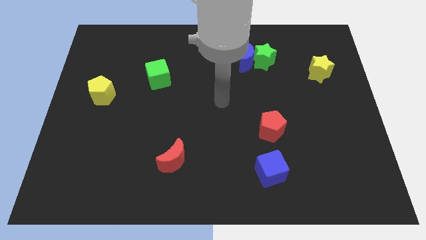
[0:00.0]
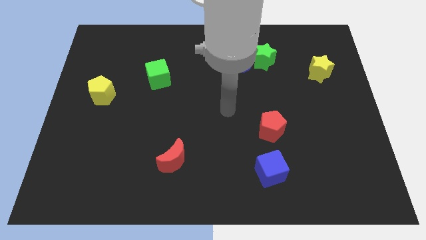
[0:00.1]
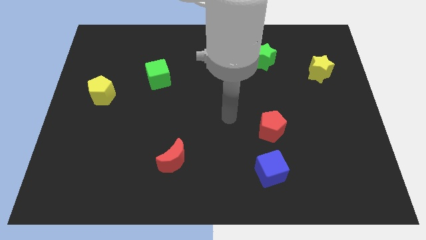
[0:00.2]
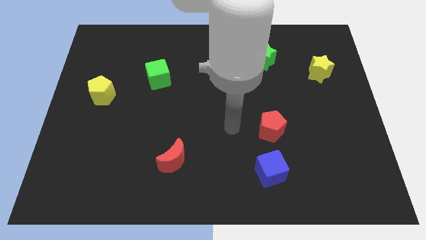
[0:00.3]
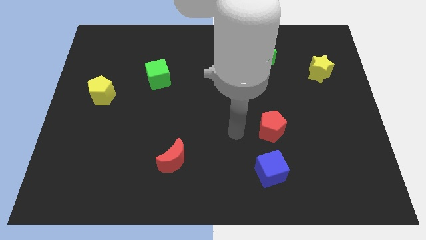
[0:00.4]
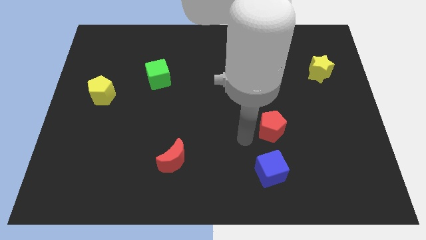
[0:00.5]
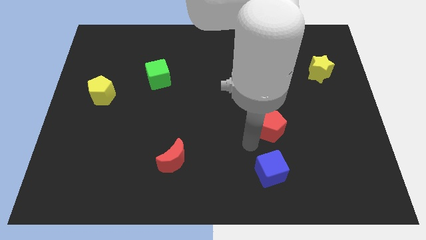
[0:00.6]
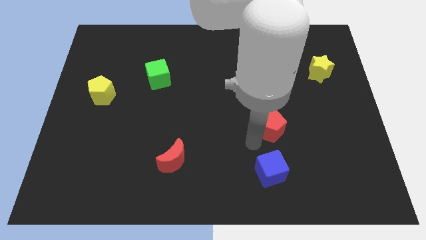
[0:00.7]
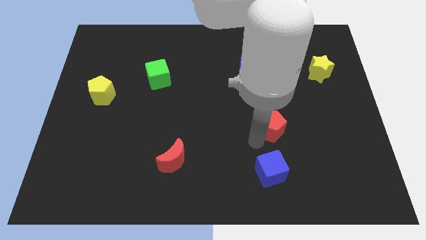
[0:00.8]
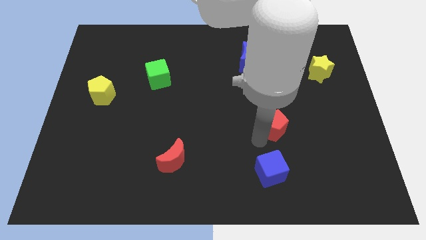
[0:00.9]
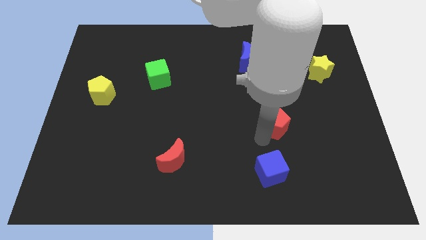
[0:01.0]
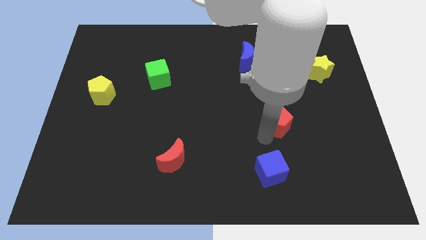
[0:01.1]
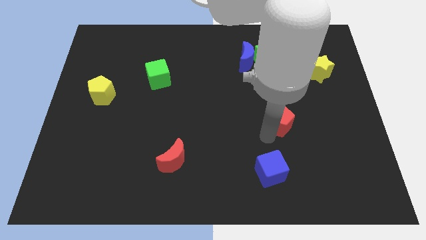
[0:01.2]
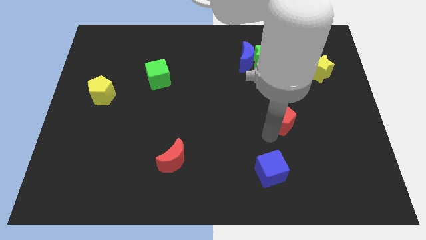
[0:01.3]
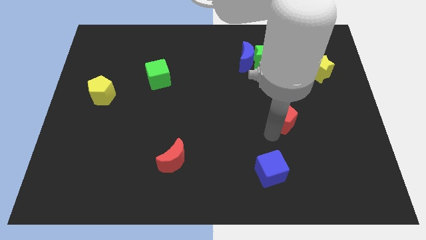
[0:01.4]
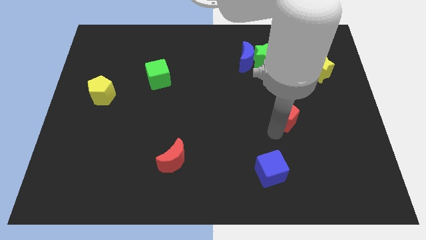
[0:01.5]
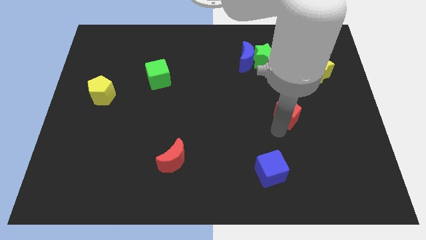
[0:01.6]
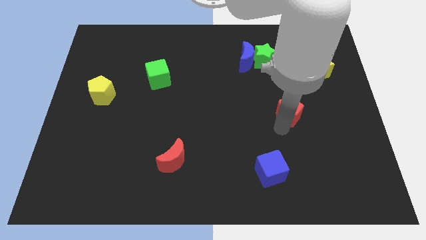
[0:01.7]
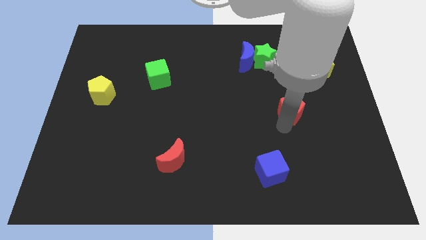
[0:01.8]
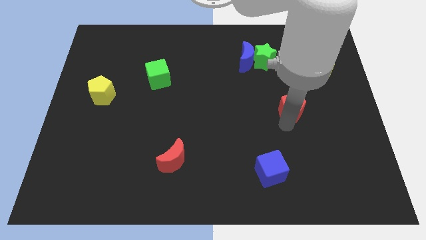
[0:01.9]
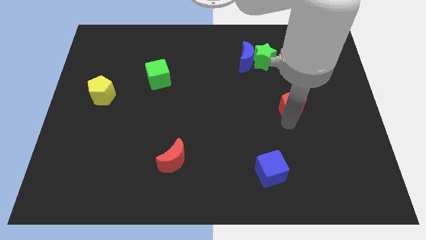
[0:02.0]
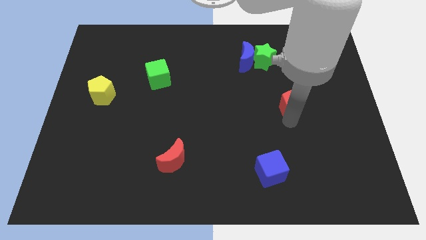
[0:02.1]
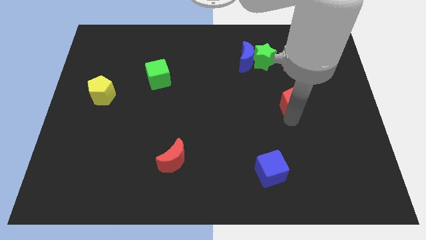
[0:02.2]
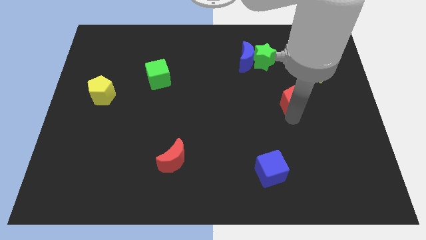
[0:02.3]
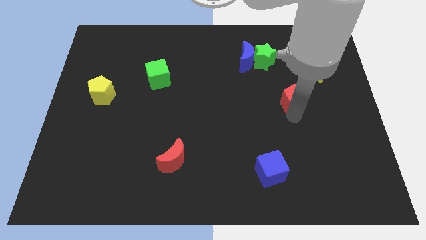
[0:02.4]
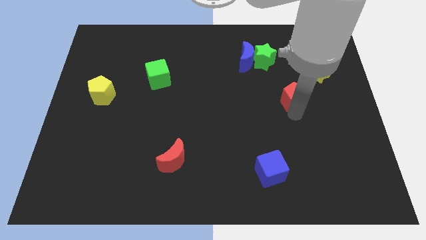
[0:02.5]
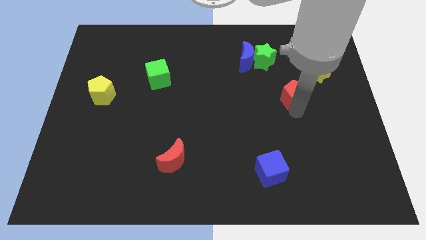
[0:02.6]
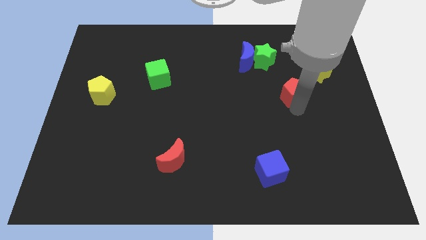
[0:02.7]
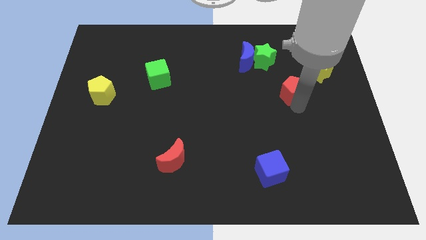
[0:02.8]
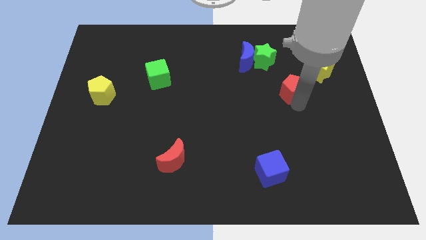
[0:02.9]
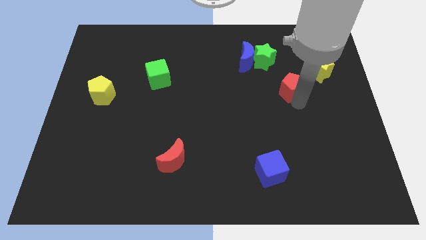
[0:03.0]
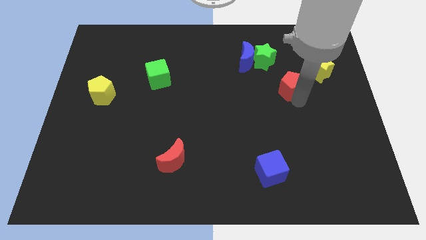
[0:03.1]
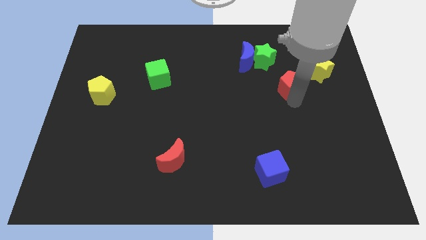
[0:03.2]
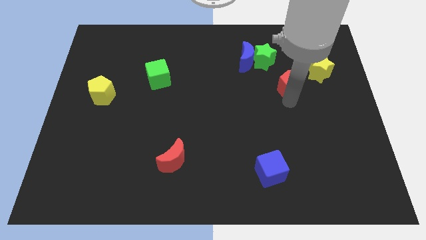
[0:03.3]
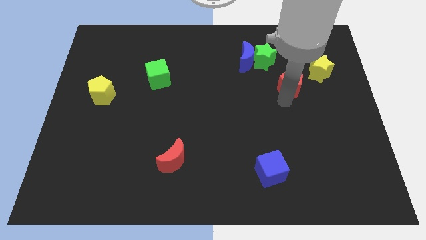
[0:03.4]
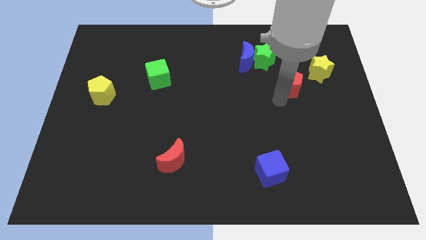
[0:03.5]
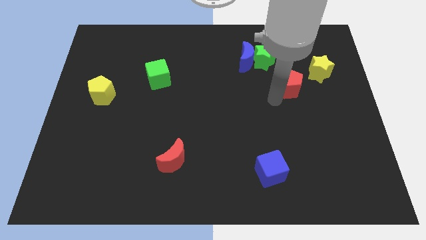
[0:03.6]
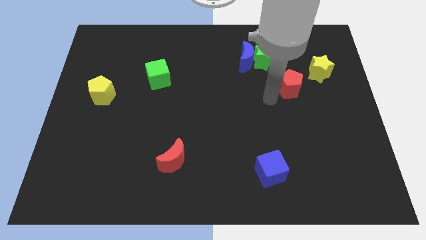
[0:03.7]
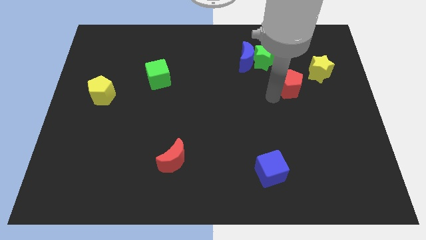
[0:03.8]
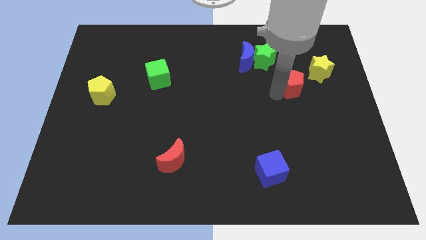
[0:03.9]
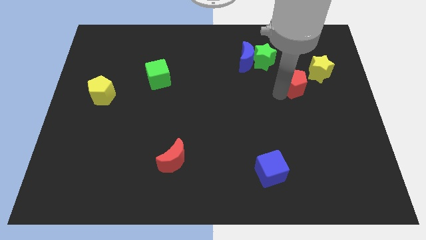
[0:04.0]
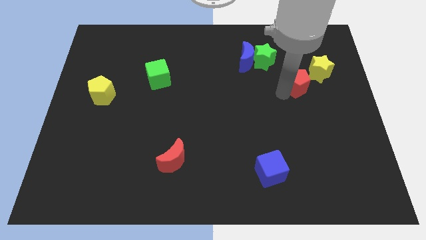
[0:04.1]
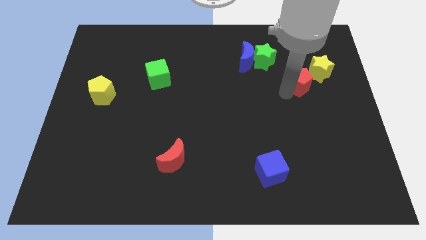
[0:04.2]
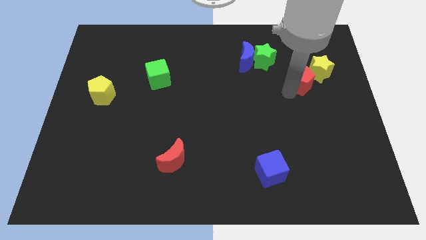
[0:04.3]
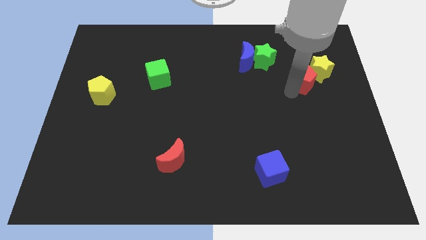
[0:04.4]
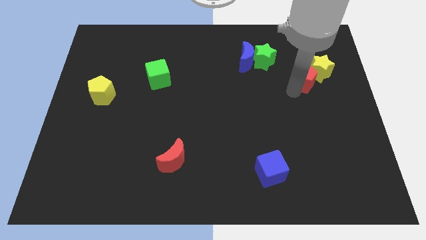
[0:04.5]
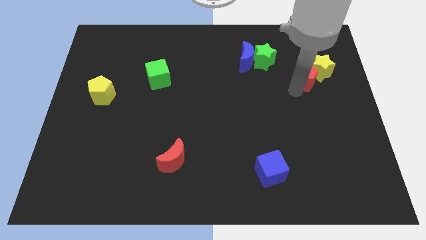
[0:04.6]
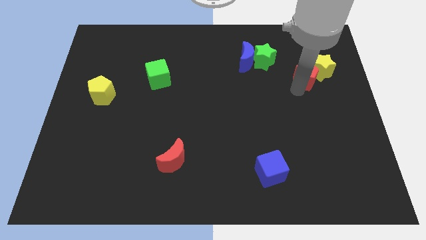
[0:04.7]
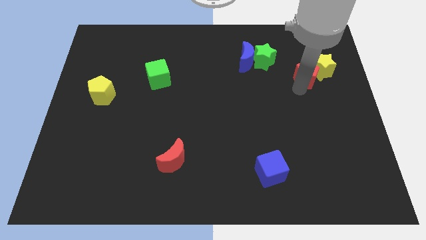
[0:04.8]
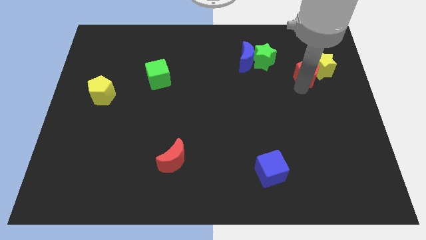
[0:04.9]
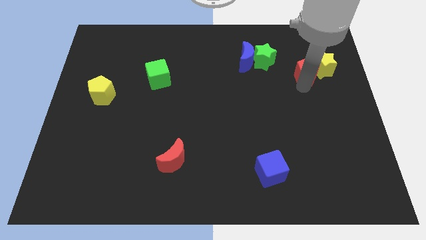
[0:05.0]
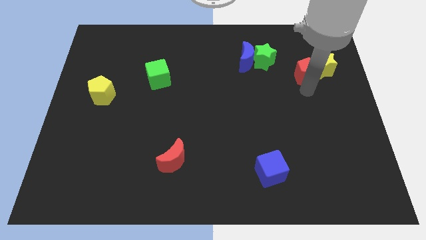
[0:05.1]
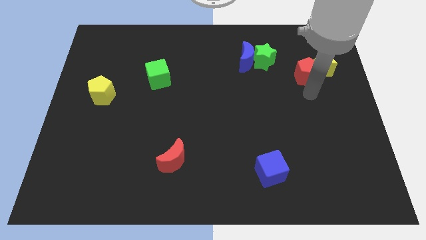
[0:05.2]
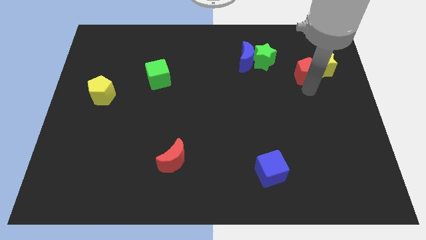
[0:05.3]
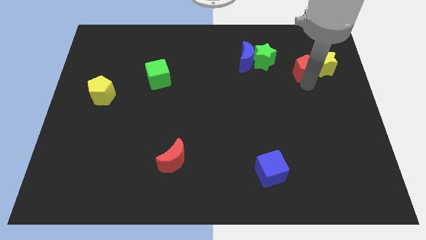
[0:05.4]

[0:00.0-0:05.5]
slide the red pentagon diagonally up and to the left of the yellow star

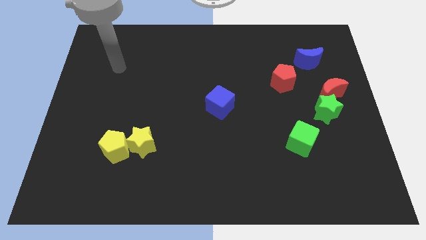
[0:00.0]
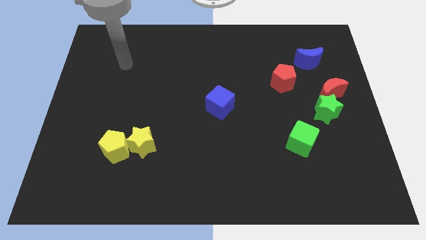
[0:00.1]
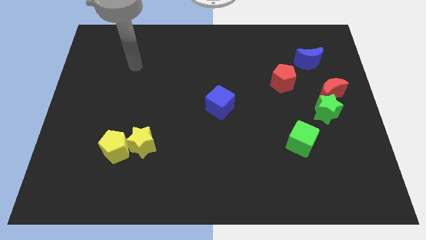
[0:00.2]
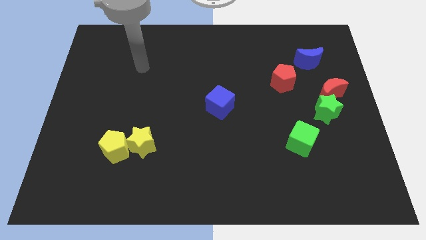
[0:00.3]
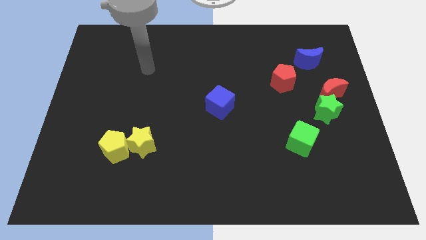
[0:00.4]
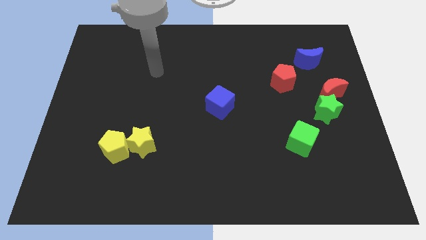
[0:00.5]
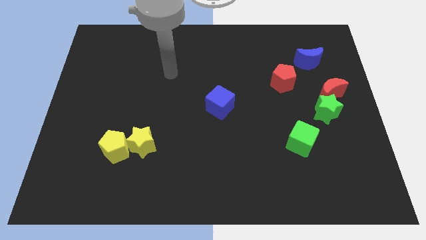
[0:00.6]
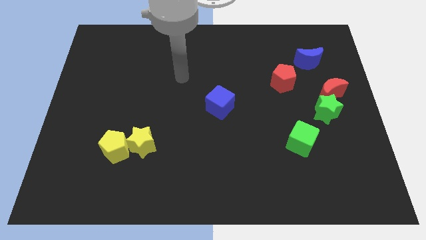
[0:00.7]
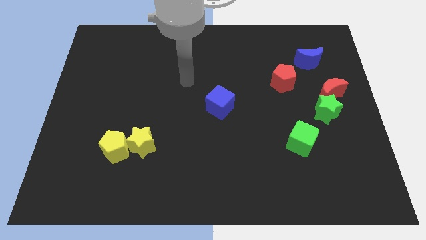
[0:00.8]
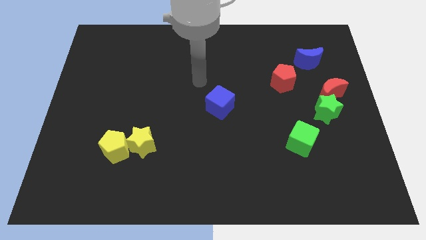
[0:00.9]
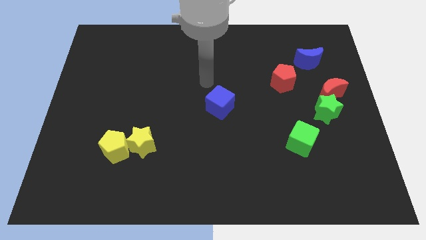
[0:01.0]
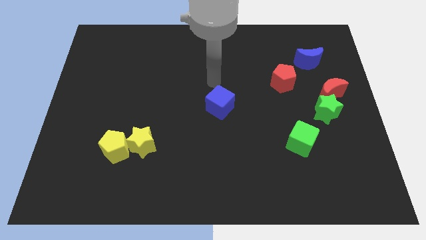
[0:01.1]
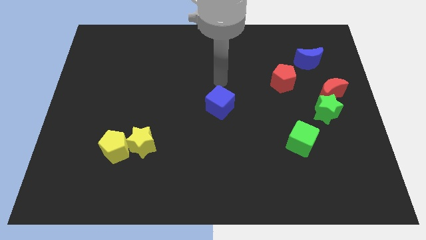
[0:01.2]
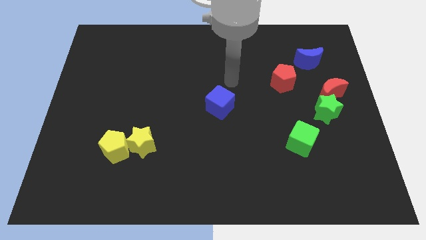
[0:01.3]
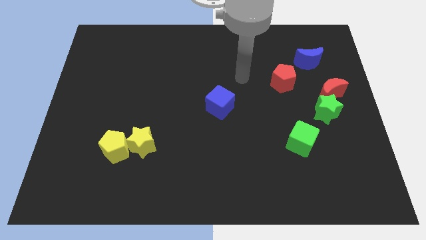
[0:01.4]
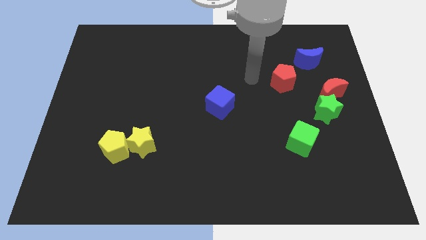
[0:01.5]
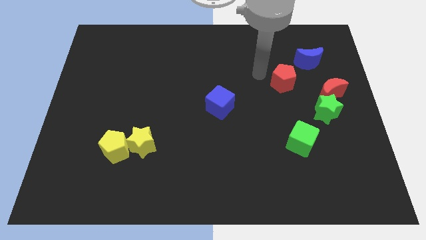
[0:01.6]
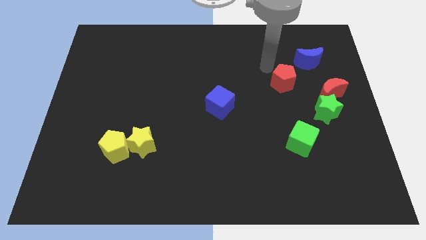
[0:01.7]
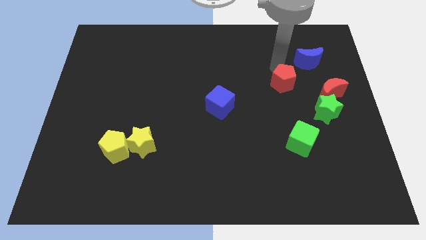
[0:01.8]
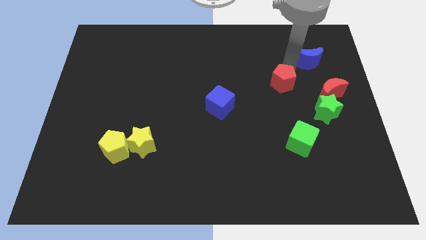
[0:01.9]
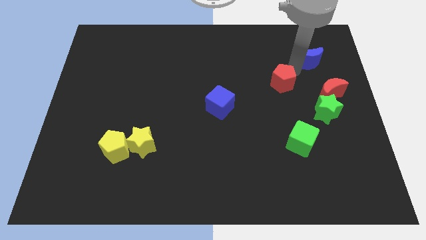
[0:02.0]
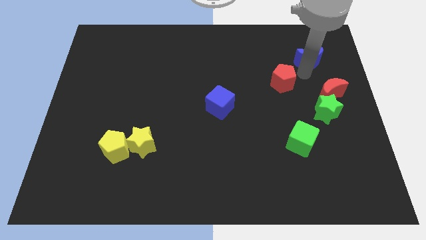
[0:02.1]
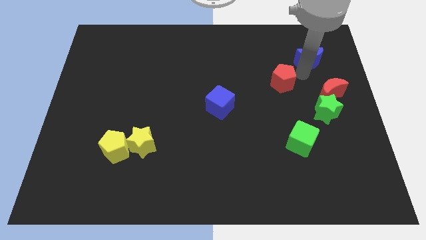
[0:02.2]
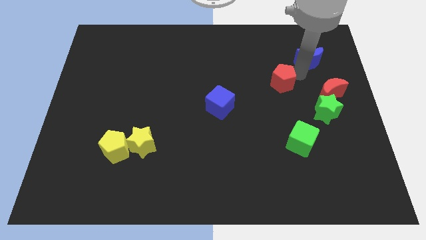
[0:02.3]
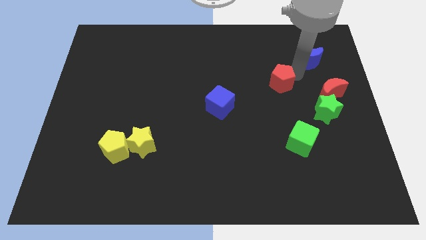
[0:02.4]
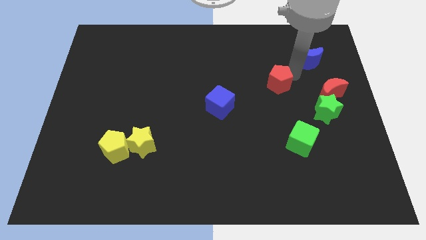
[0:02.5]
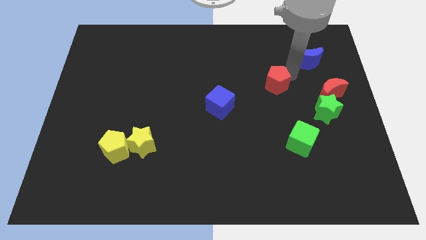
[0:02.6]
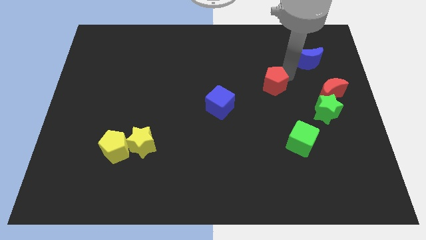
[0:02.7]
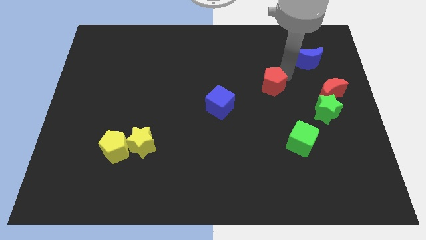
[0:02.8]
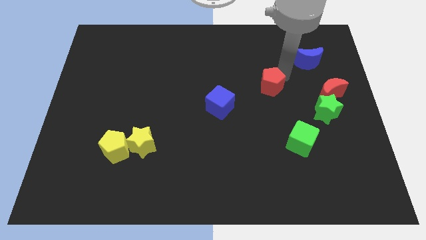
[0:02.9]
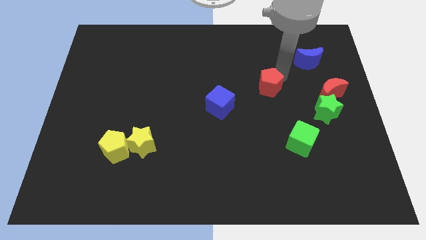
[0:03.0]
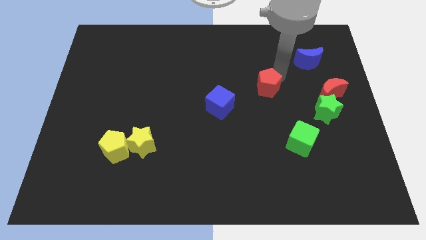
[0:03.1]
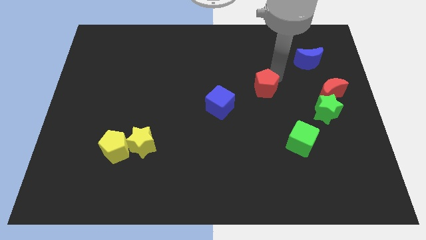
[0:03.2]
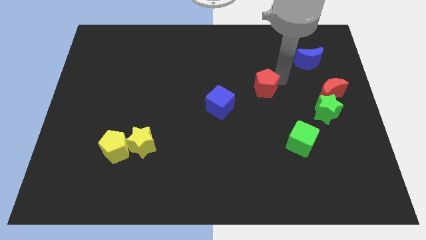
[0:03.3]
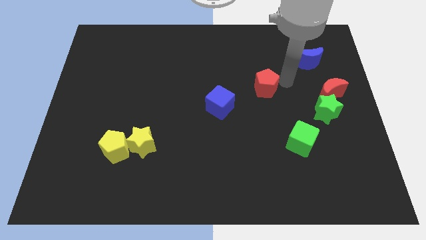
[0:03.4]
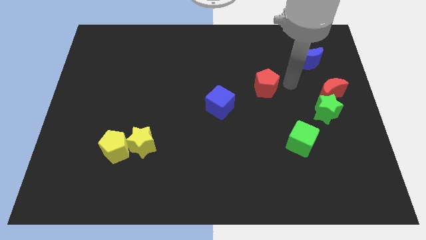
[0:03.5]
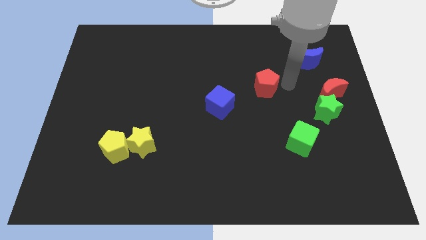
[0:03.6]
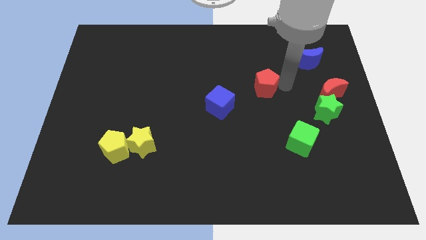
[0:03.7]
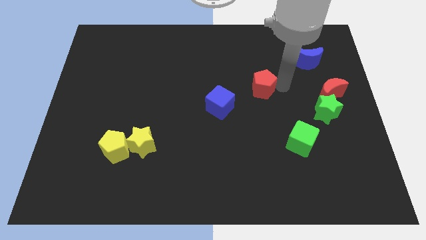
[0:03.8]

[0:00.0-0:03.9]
slide the red pentagon to the top right side of the blue cube
